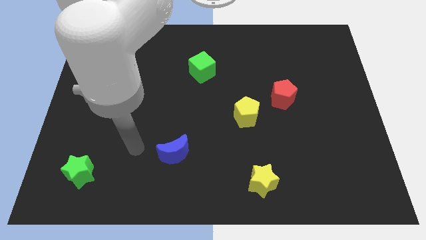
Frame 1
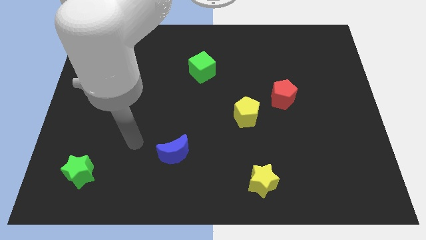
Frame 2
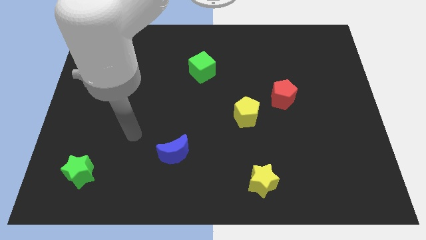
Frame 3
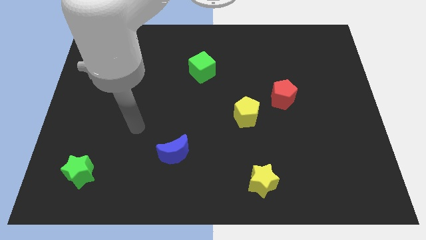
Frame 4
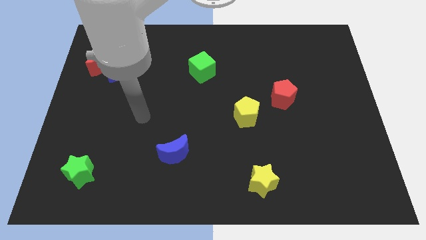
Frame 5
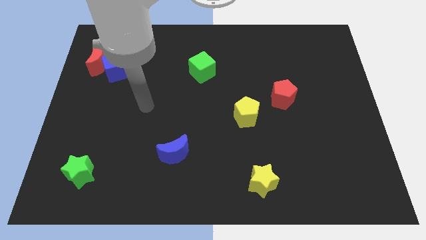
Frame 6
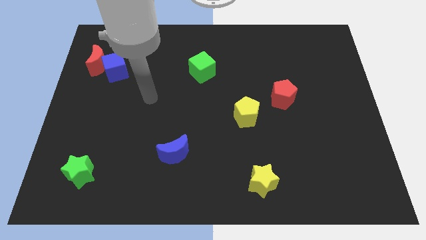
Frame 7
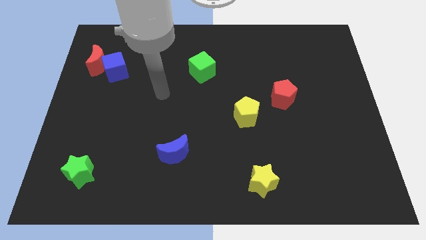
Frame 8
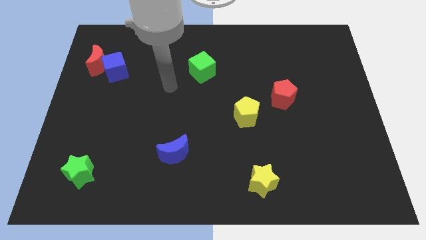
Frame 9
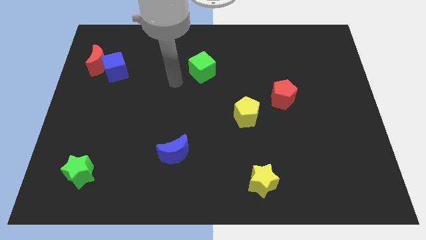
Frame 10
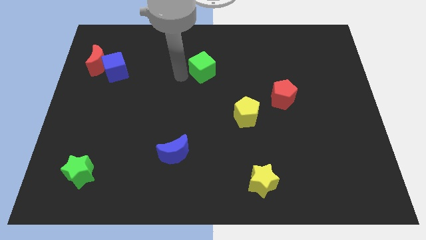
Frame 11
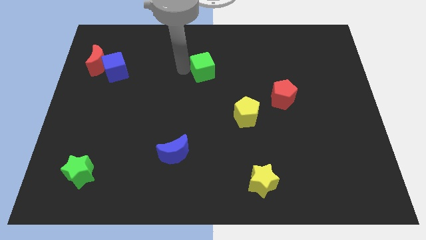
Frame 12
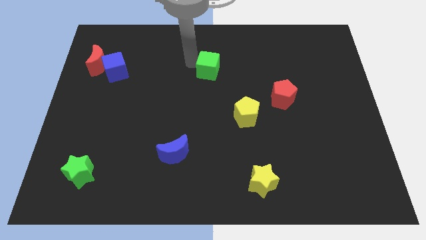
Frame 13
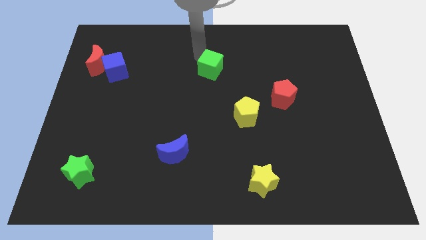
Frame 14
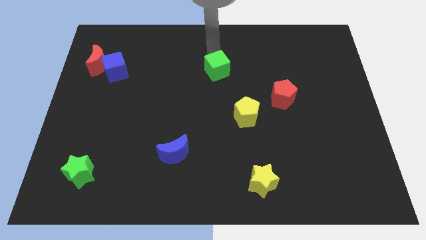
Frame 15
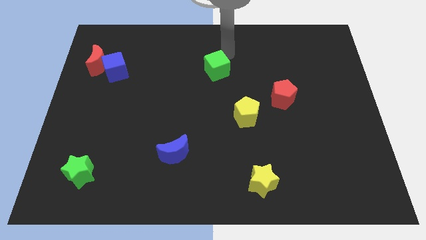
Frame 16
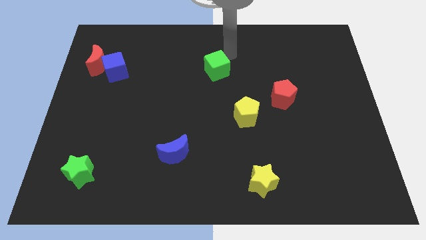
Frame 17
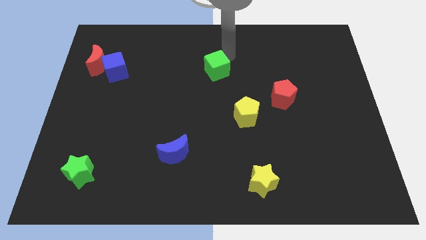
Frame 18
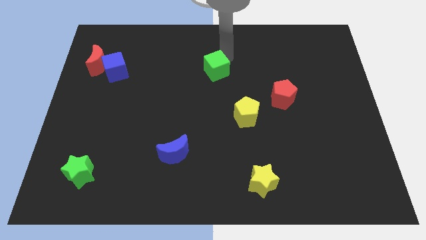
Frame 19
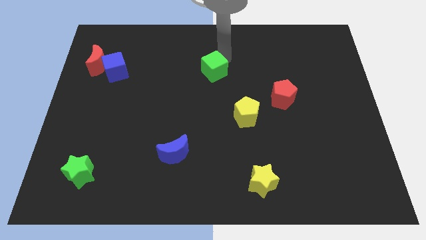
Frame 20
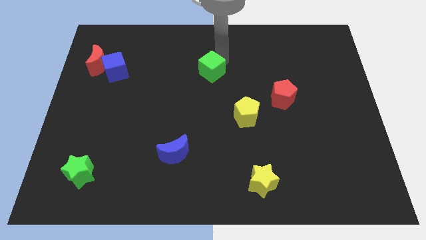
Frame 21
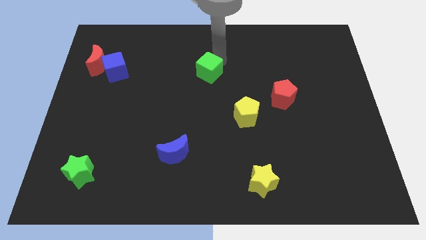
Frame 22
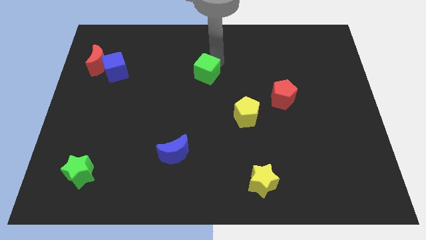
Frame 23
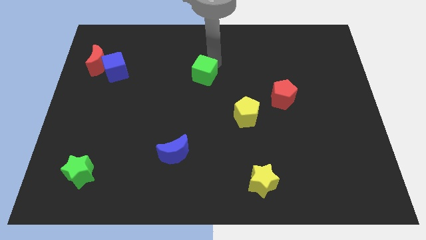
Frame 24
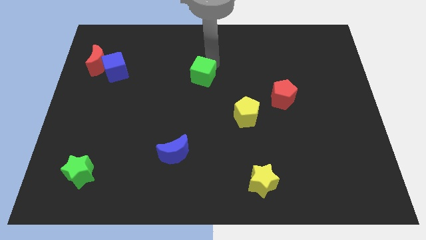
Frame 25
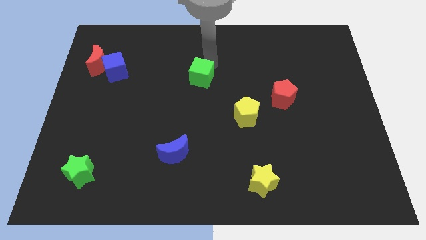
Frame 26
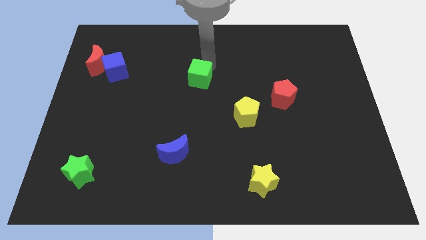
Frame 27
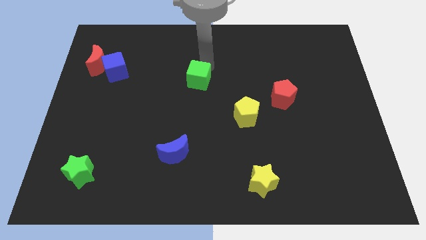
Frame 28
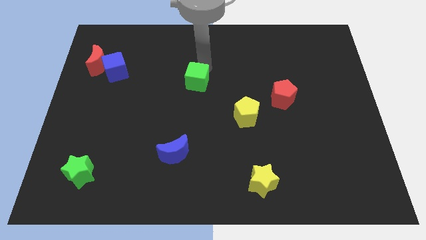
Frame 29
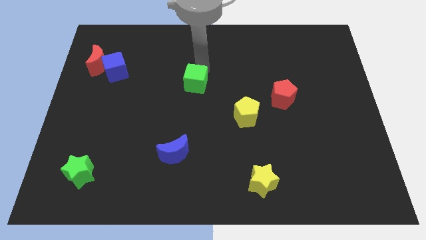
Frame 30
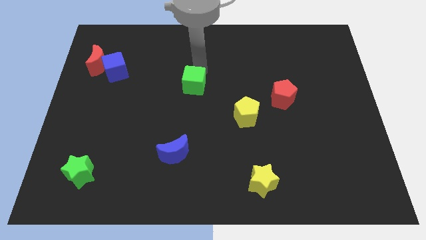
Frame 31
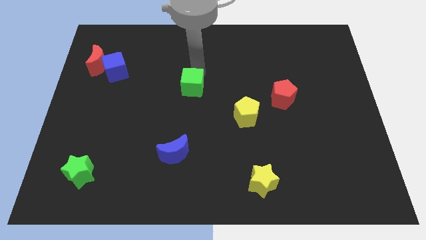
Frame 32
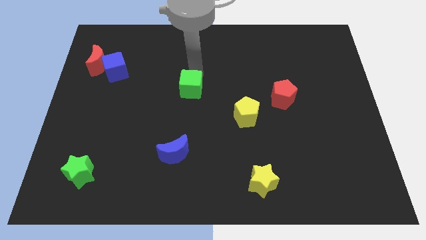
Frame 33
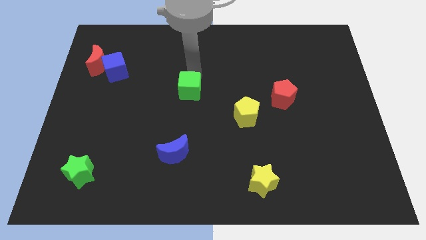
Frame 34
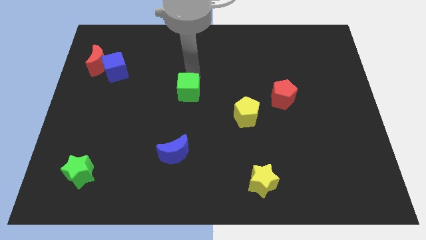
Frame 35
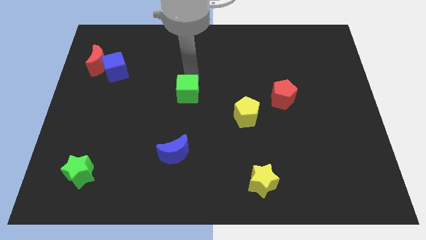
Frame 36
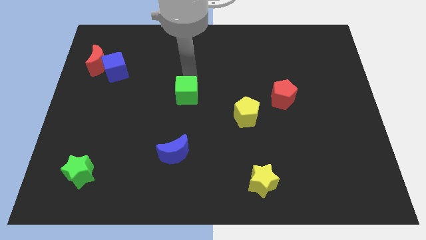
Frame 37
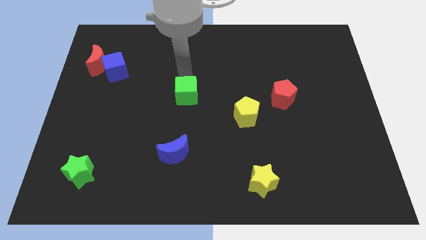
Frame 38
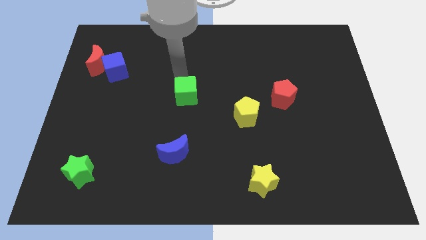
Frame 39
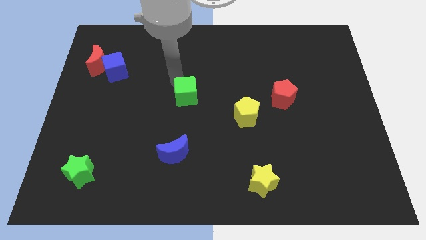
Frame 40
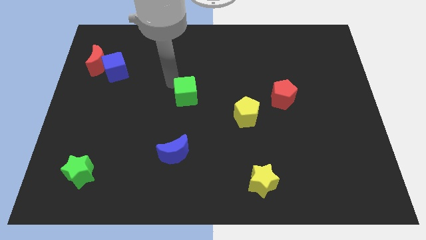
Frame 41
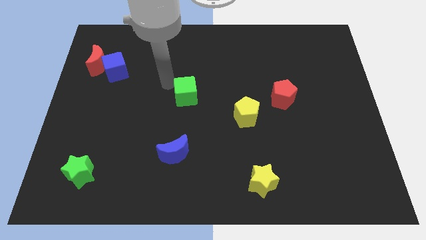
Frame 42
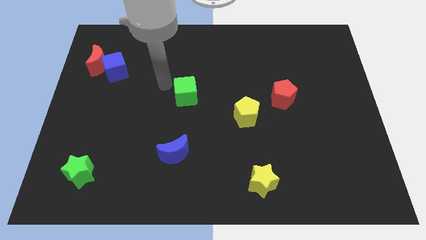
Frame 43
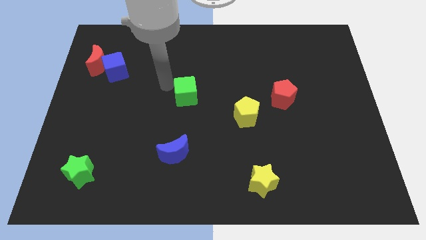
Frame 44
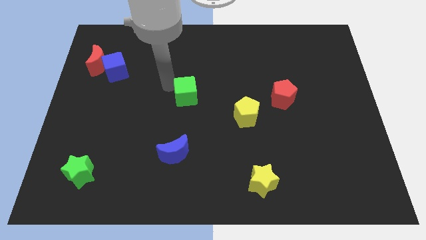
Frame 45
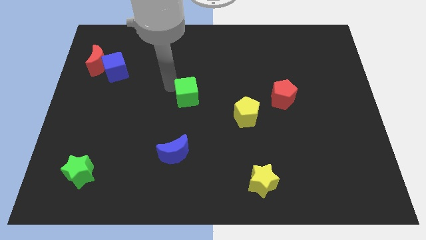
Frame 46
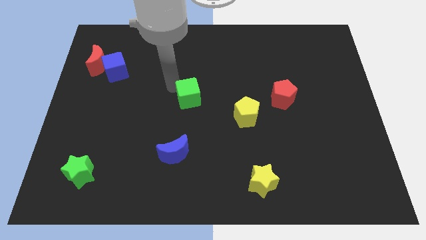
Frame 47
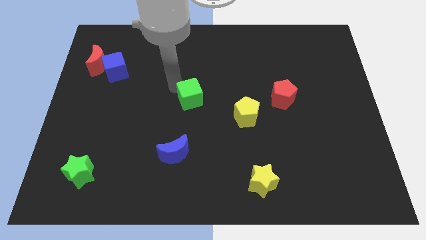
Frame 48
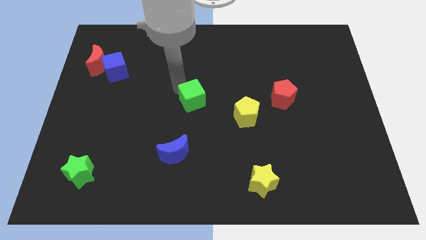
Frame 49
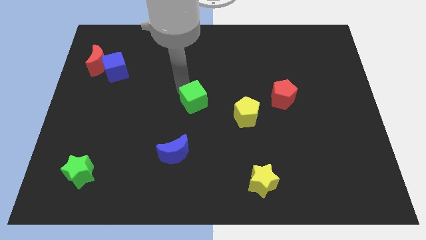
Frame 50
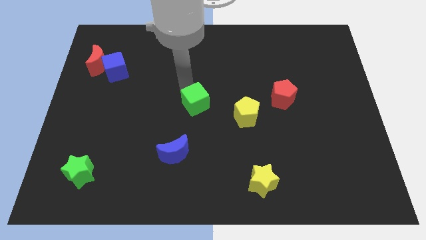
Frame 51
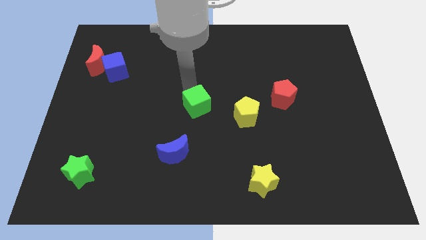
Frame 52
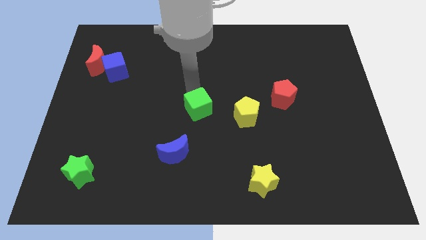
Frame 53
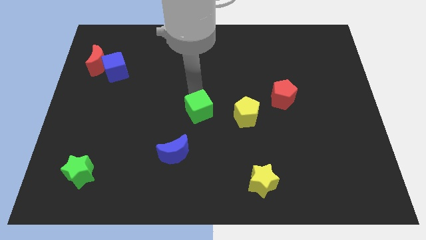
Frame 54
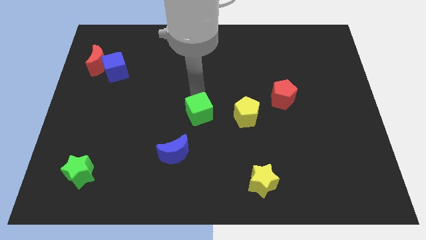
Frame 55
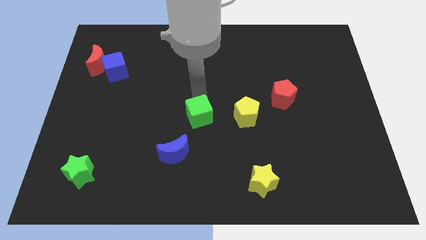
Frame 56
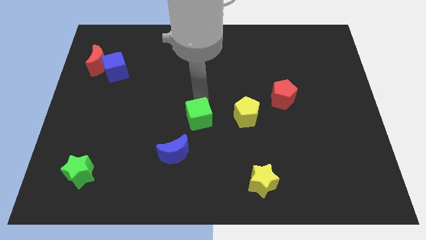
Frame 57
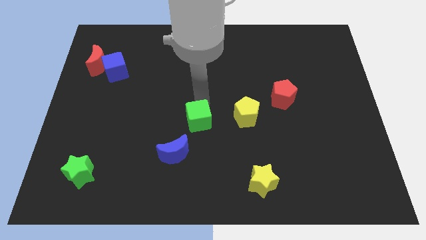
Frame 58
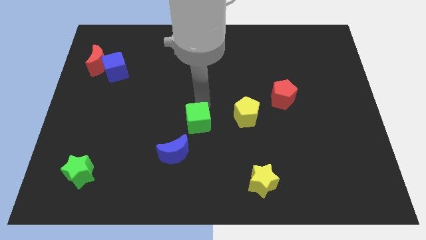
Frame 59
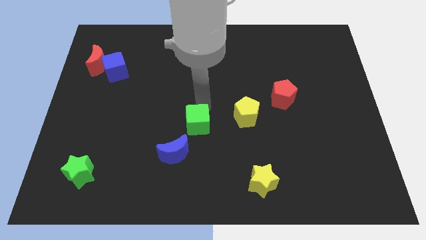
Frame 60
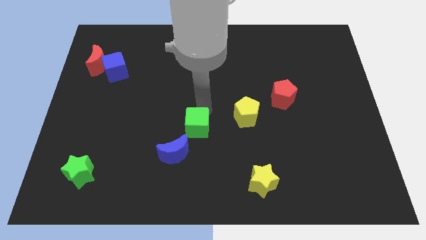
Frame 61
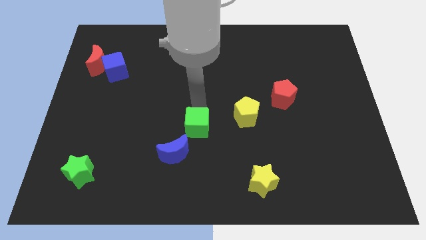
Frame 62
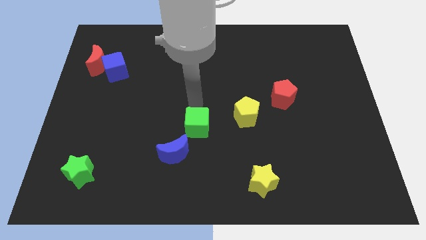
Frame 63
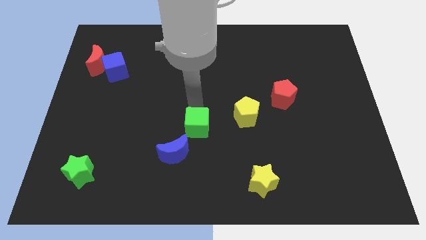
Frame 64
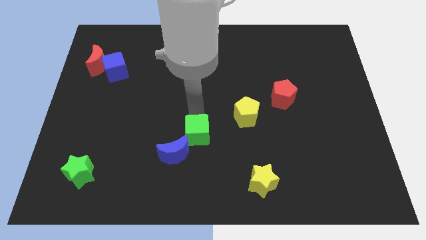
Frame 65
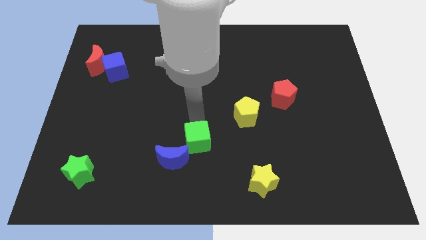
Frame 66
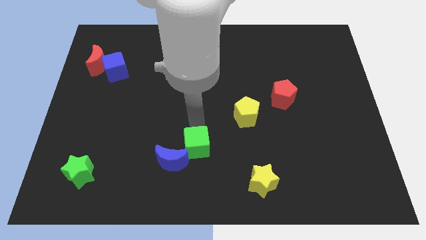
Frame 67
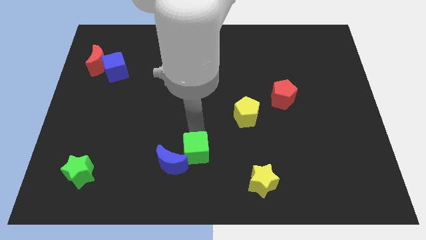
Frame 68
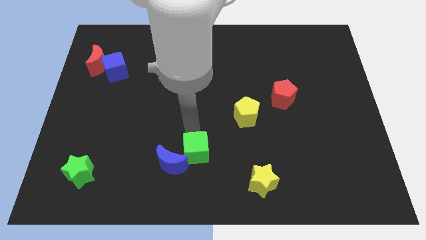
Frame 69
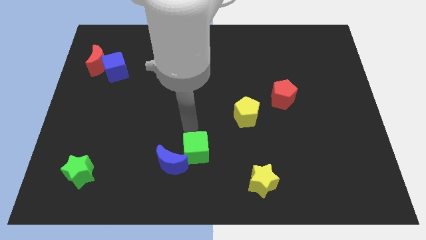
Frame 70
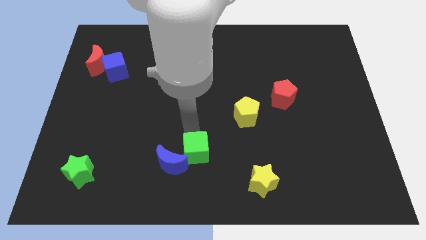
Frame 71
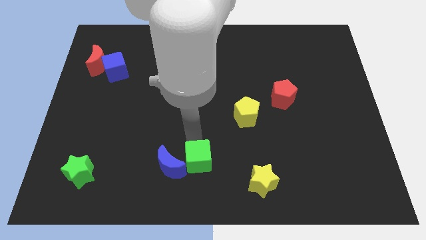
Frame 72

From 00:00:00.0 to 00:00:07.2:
push the green cube to the bottom
